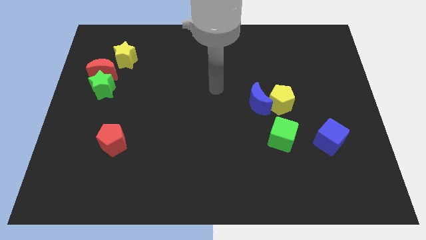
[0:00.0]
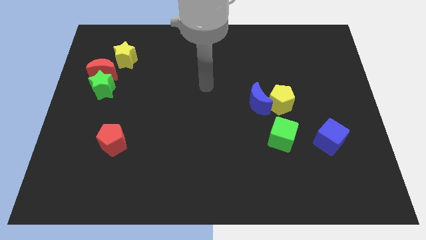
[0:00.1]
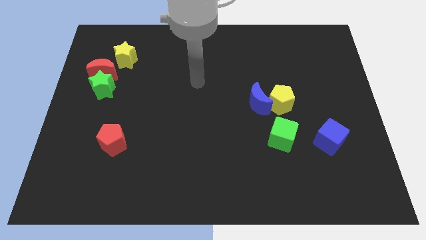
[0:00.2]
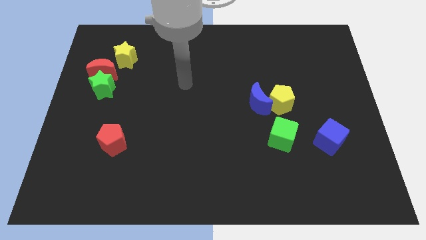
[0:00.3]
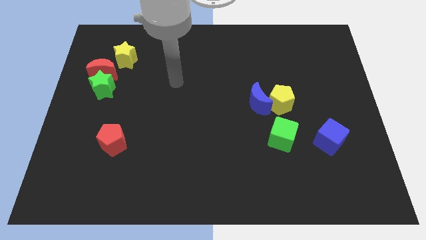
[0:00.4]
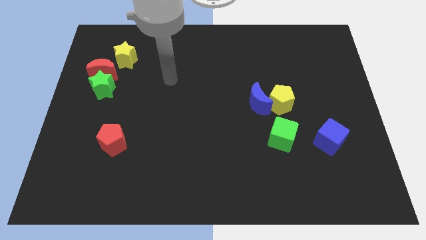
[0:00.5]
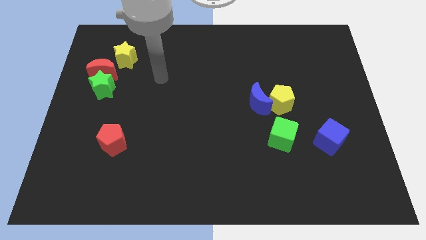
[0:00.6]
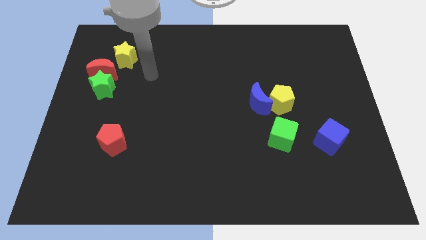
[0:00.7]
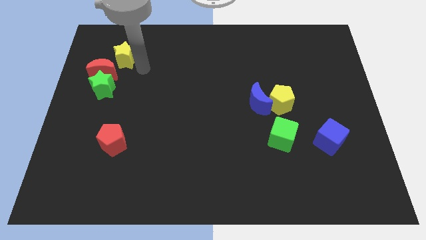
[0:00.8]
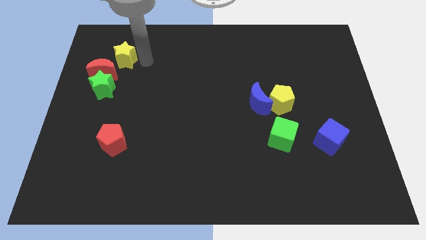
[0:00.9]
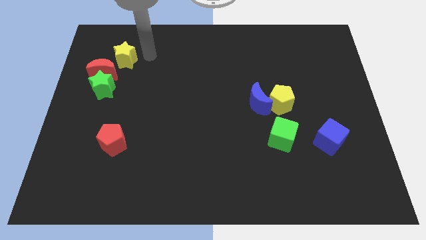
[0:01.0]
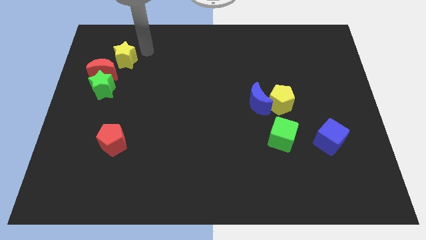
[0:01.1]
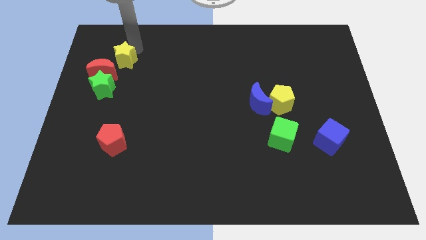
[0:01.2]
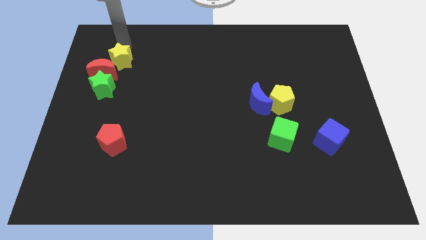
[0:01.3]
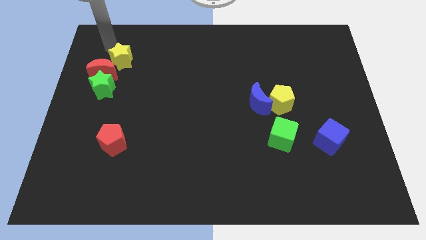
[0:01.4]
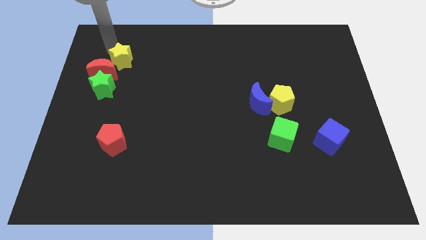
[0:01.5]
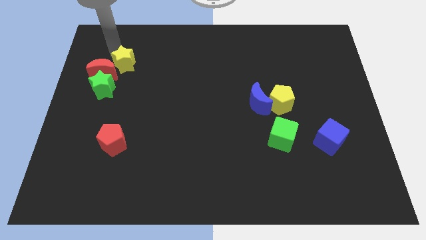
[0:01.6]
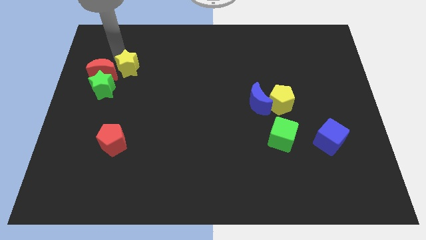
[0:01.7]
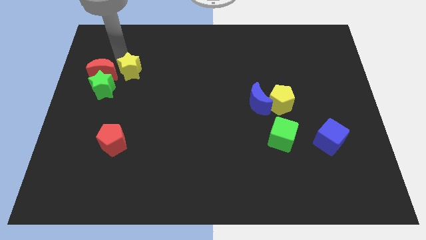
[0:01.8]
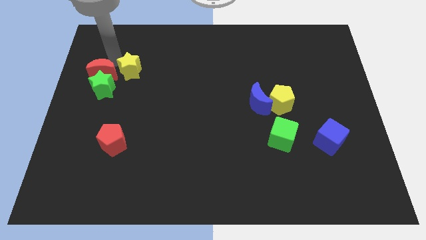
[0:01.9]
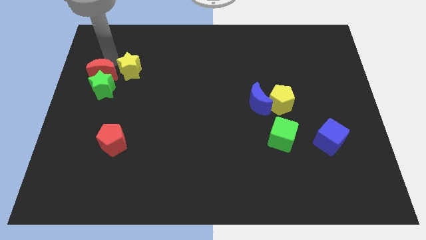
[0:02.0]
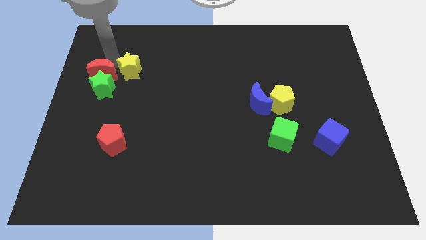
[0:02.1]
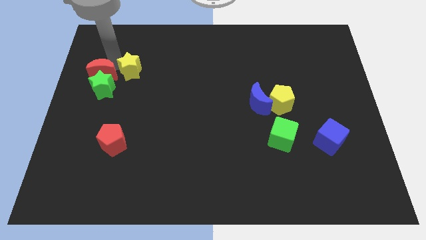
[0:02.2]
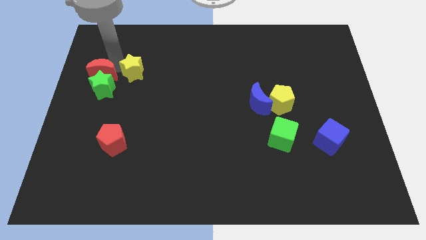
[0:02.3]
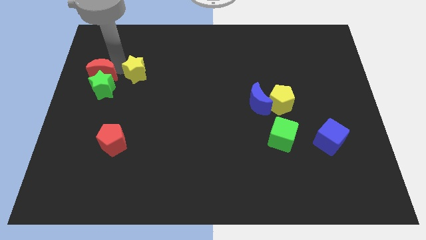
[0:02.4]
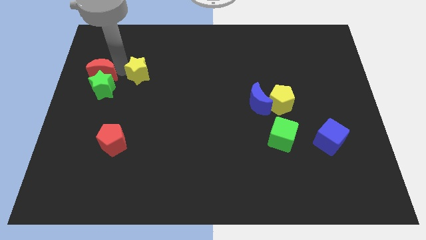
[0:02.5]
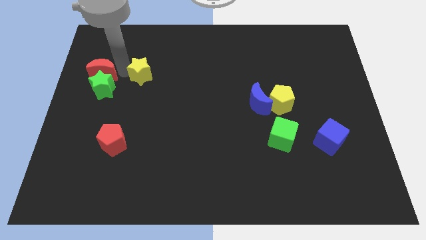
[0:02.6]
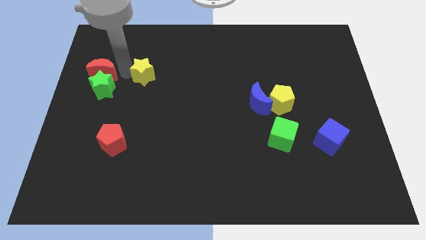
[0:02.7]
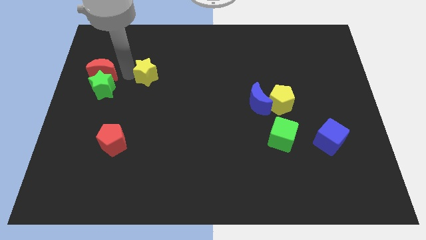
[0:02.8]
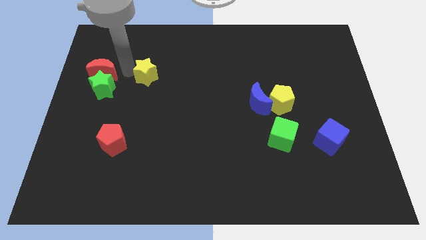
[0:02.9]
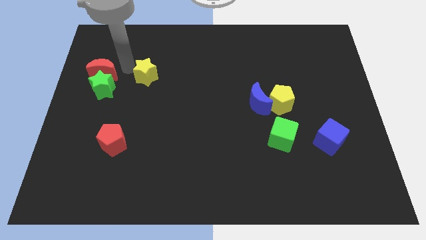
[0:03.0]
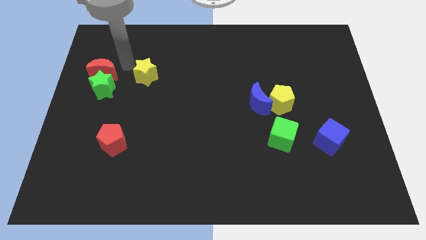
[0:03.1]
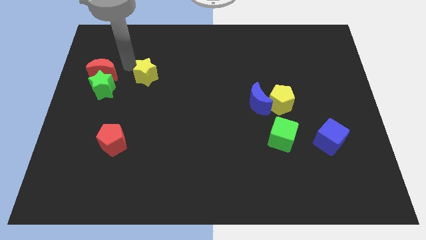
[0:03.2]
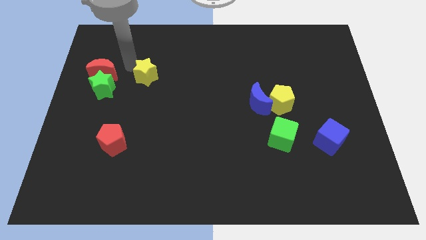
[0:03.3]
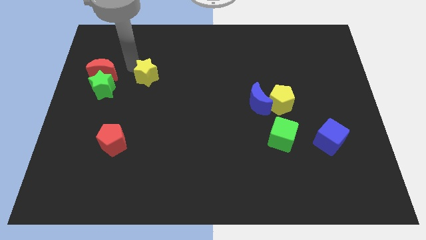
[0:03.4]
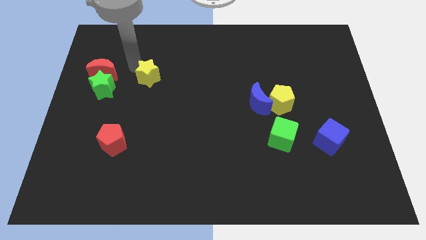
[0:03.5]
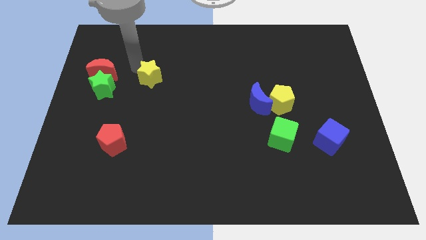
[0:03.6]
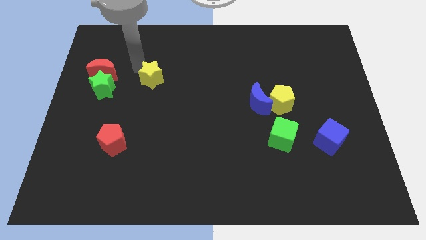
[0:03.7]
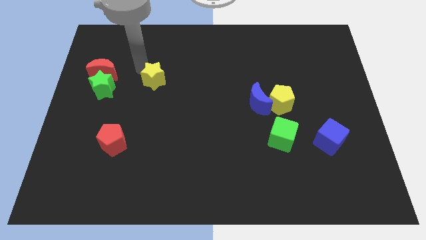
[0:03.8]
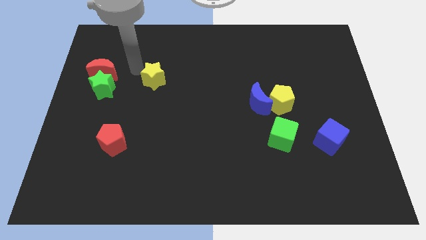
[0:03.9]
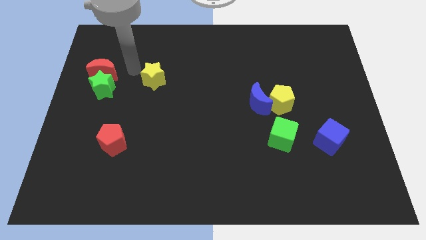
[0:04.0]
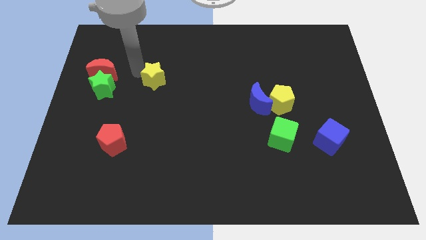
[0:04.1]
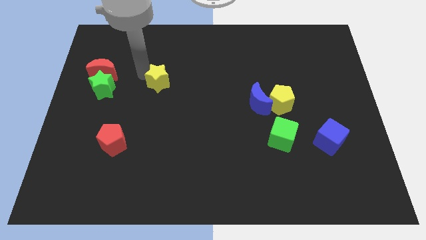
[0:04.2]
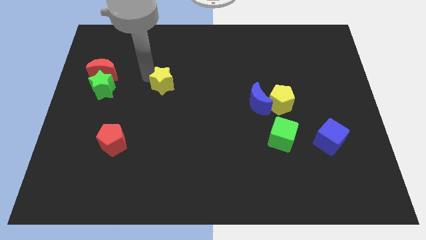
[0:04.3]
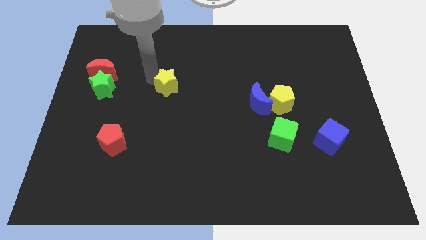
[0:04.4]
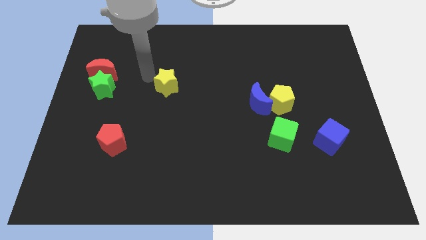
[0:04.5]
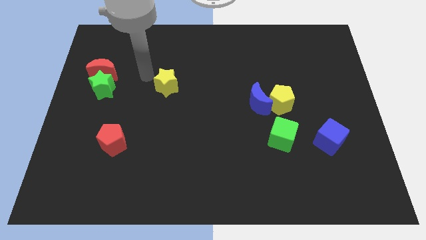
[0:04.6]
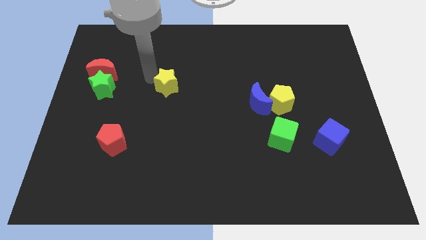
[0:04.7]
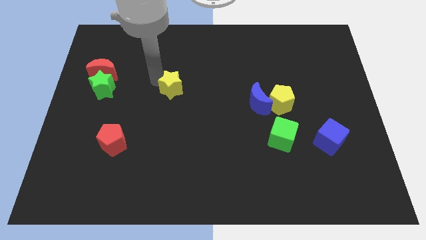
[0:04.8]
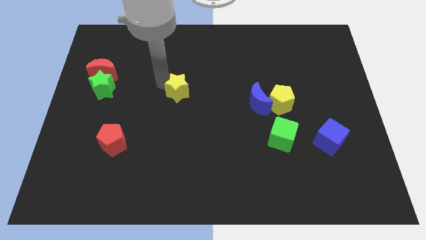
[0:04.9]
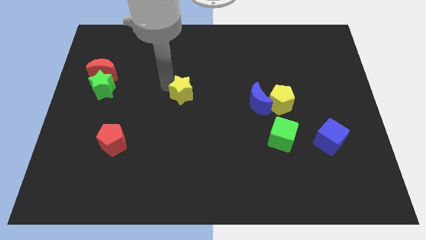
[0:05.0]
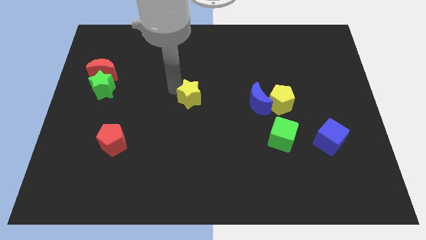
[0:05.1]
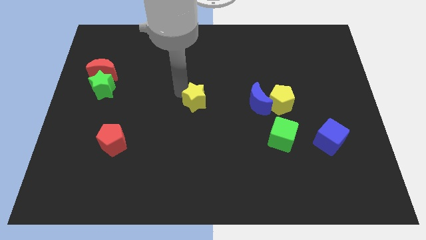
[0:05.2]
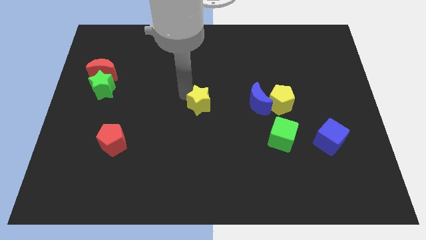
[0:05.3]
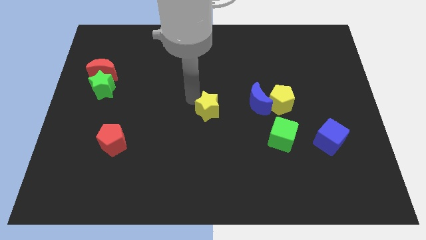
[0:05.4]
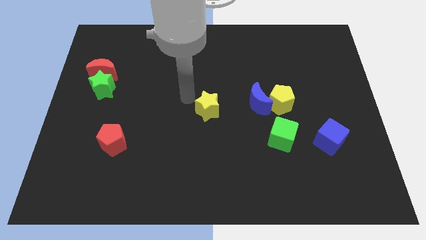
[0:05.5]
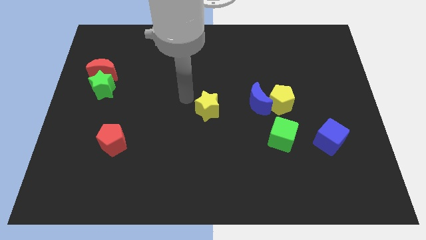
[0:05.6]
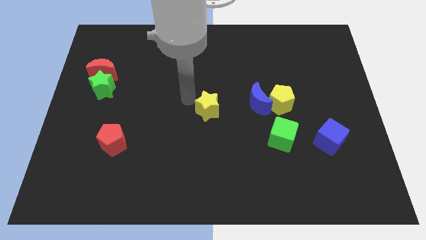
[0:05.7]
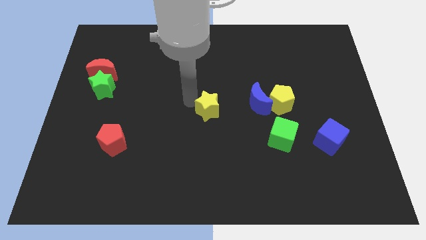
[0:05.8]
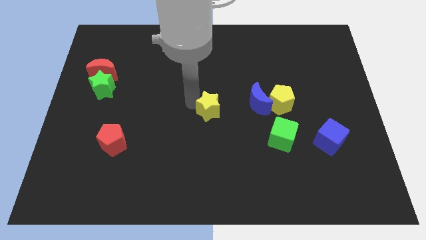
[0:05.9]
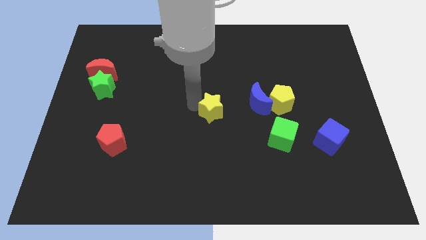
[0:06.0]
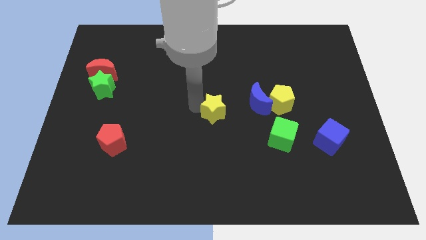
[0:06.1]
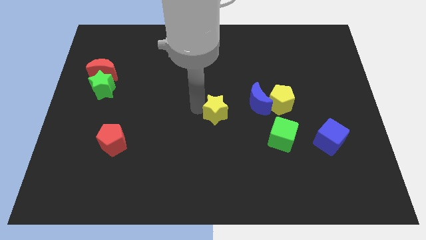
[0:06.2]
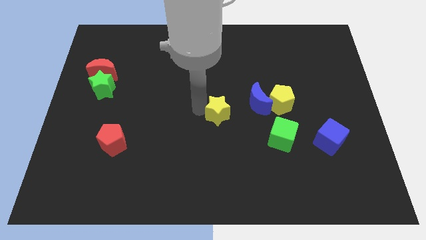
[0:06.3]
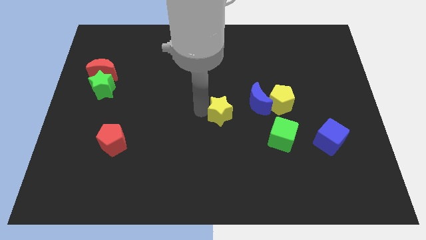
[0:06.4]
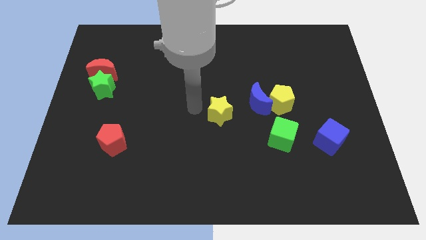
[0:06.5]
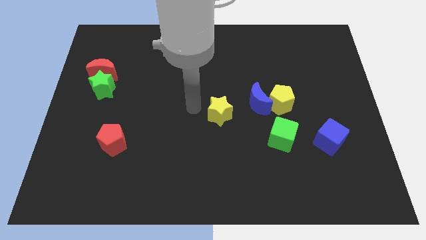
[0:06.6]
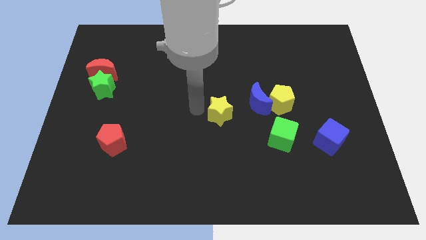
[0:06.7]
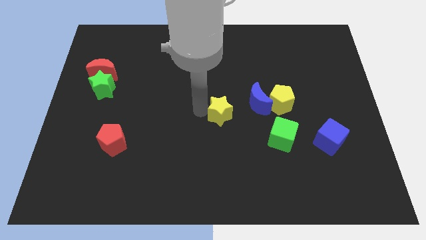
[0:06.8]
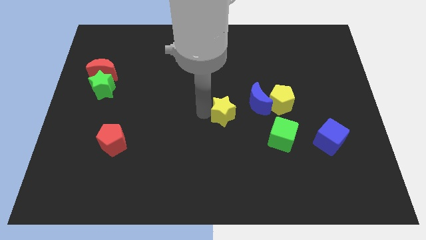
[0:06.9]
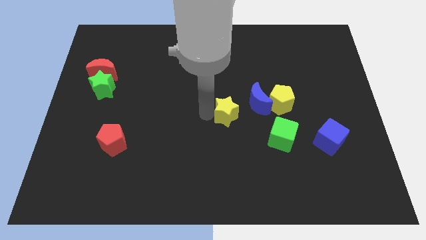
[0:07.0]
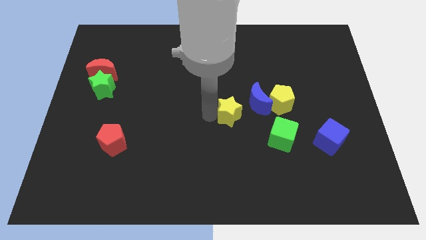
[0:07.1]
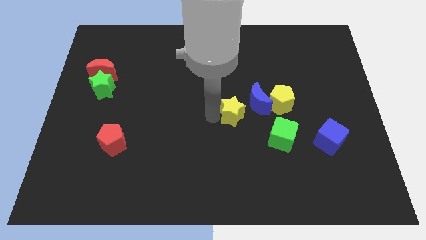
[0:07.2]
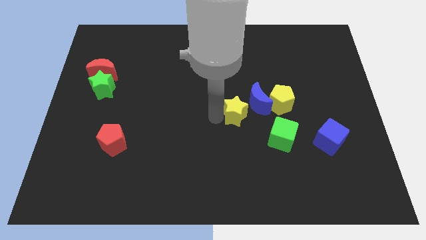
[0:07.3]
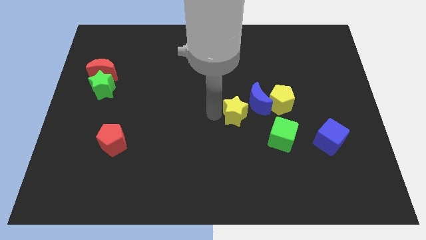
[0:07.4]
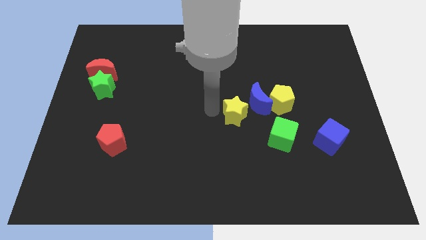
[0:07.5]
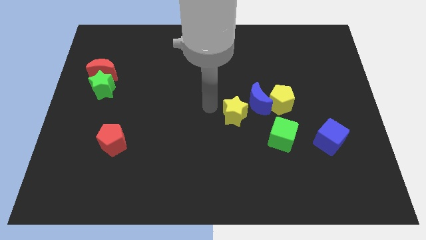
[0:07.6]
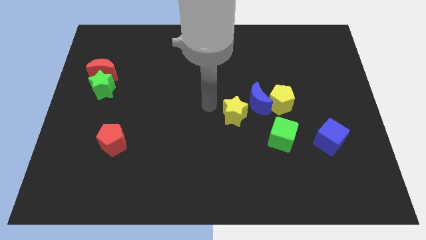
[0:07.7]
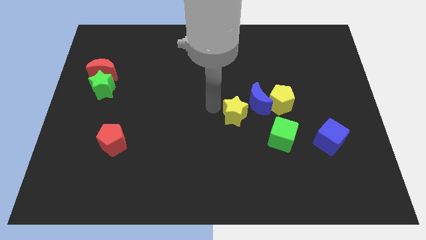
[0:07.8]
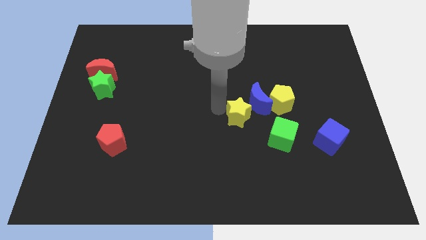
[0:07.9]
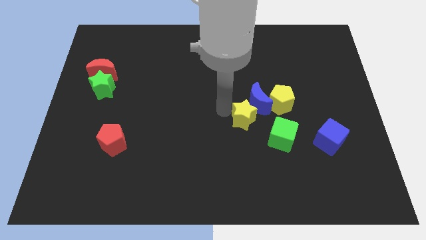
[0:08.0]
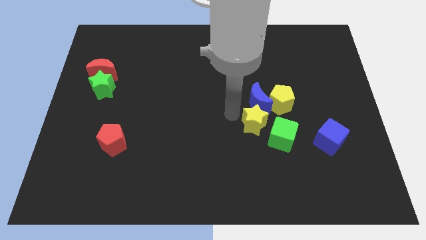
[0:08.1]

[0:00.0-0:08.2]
slide the yellow star to the bottom right of the blue moon
